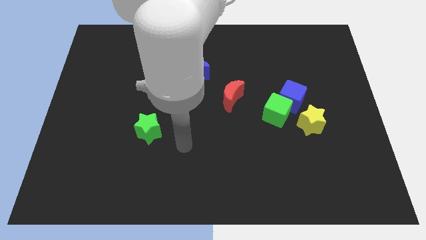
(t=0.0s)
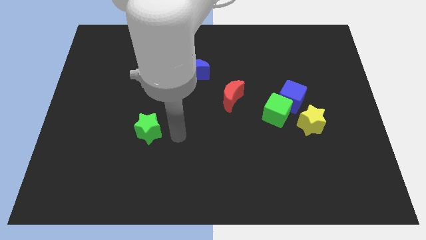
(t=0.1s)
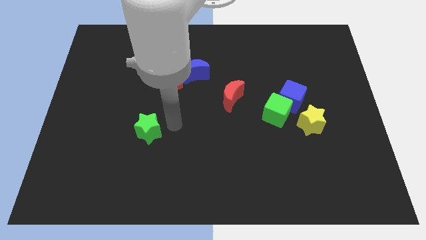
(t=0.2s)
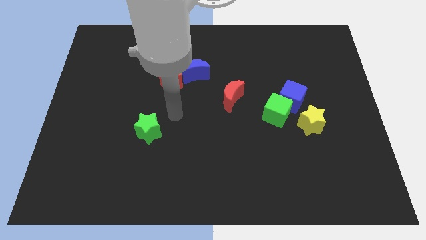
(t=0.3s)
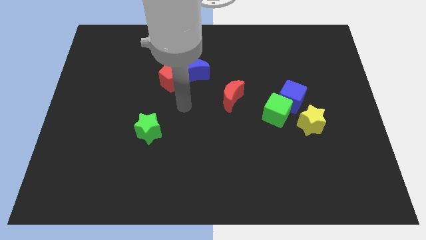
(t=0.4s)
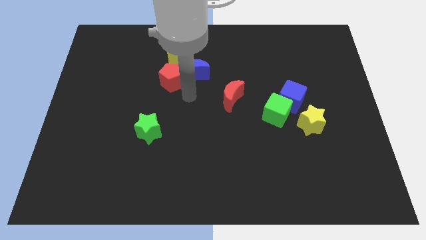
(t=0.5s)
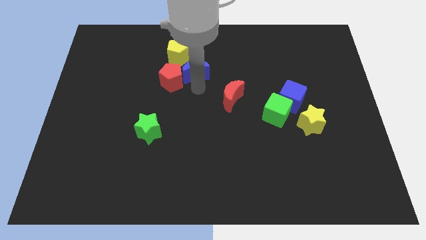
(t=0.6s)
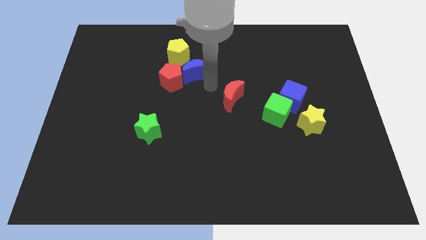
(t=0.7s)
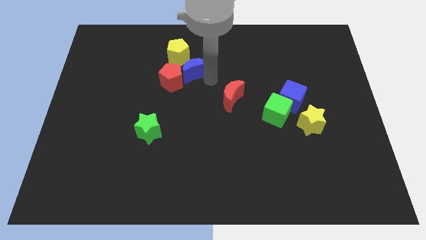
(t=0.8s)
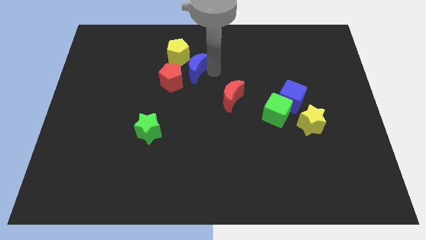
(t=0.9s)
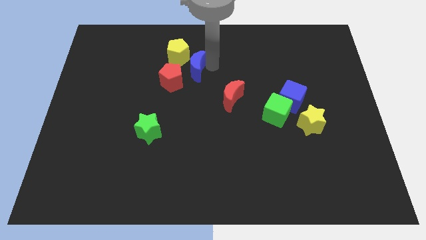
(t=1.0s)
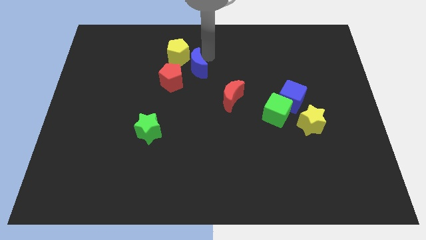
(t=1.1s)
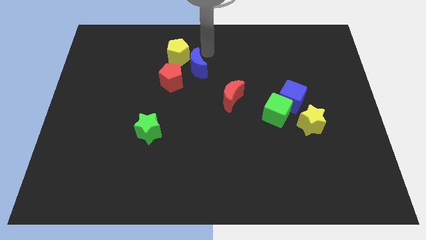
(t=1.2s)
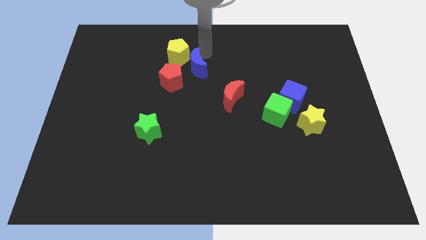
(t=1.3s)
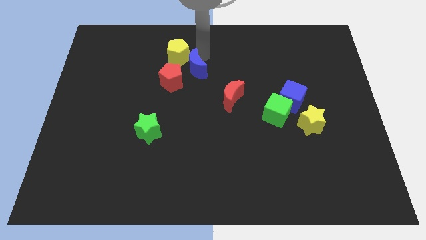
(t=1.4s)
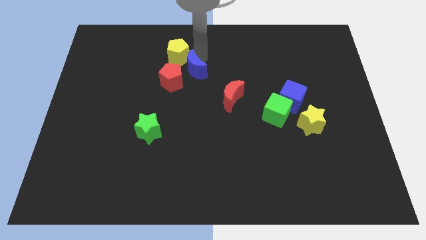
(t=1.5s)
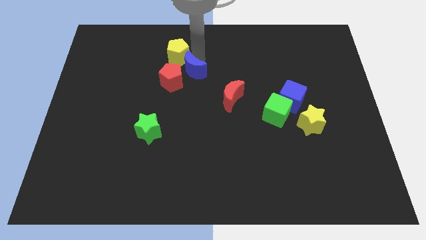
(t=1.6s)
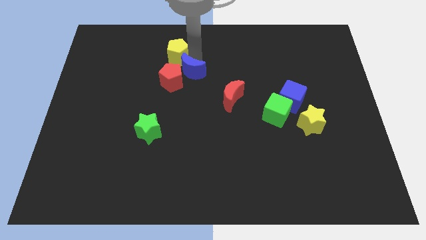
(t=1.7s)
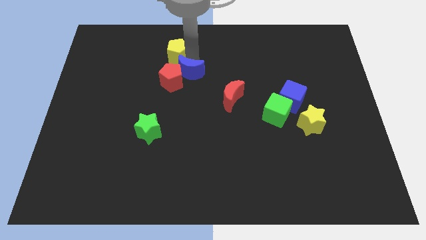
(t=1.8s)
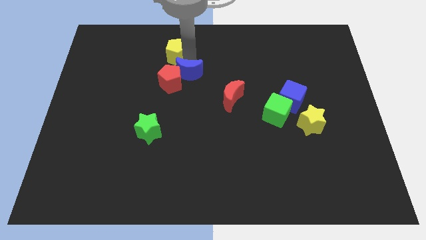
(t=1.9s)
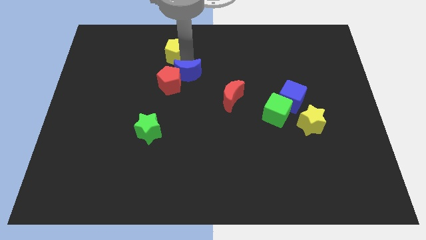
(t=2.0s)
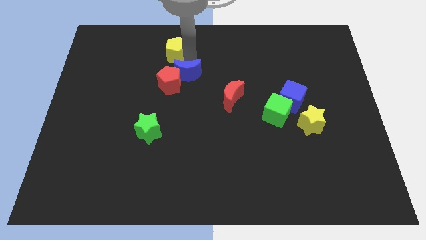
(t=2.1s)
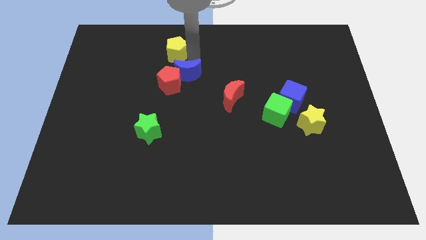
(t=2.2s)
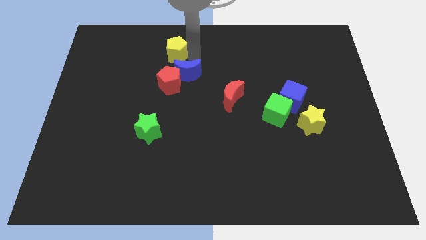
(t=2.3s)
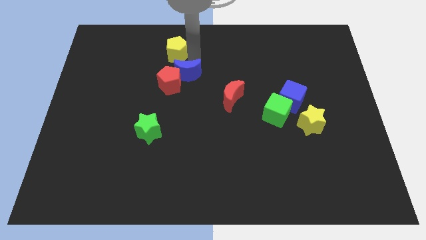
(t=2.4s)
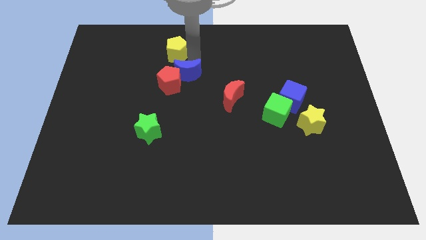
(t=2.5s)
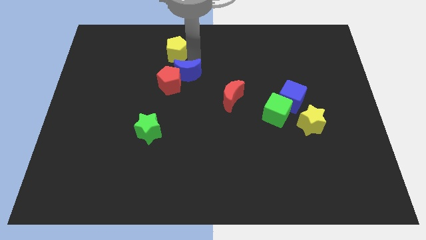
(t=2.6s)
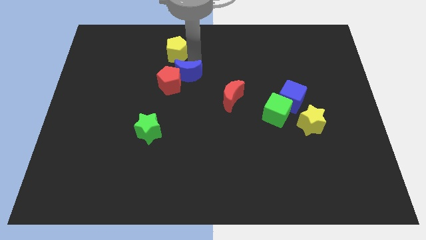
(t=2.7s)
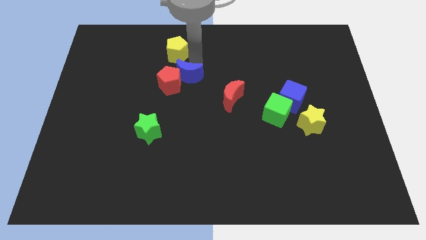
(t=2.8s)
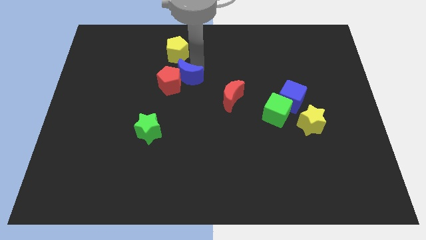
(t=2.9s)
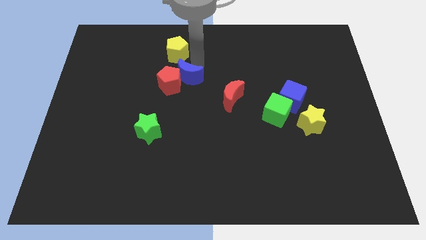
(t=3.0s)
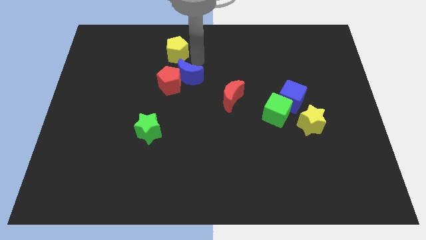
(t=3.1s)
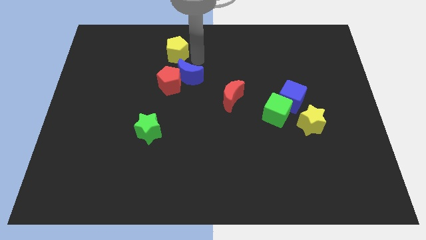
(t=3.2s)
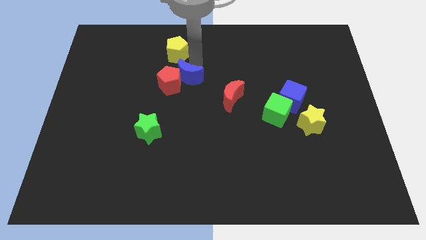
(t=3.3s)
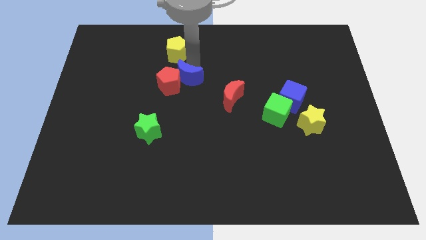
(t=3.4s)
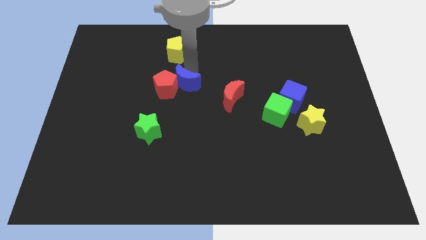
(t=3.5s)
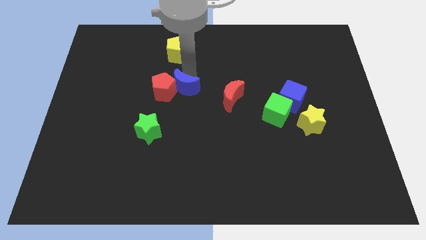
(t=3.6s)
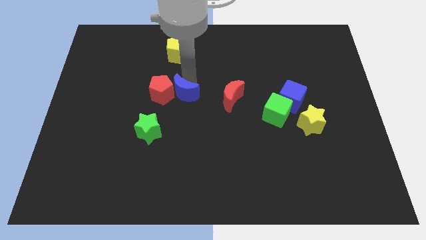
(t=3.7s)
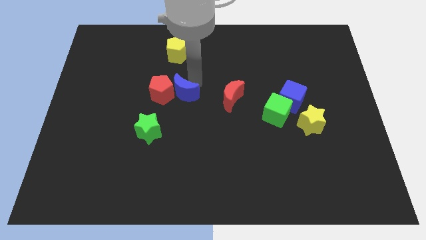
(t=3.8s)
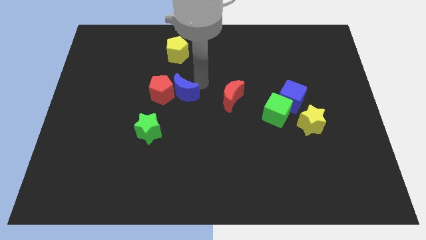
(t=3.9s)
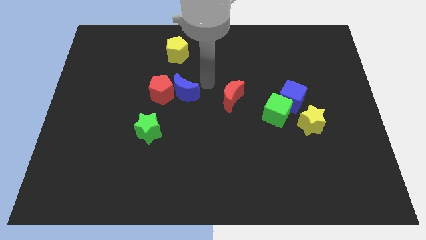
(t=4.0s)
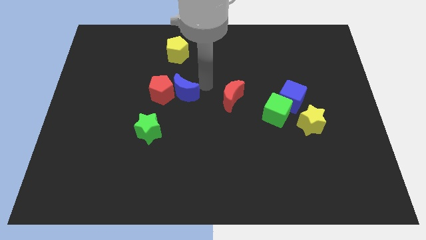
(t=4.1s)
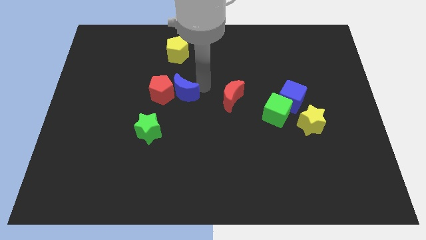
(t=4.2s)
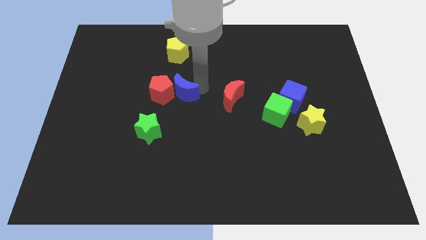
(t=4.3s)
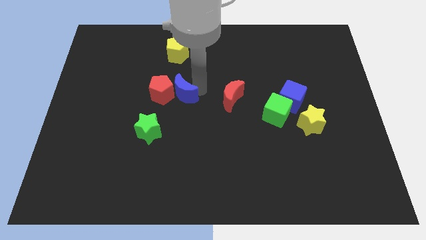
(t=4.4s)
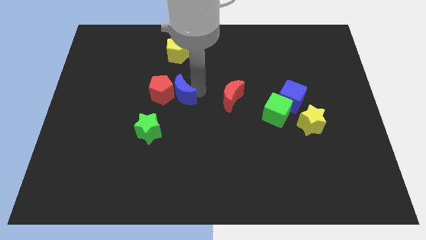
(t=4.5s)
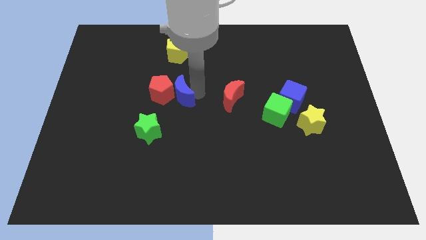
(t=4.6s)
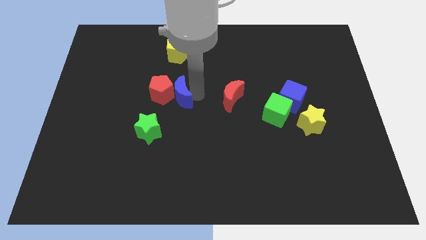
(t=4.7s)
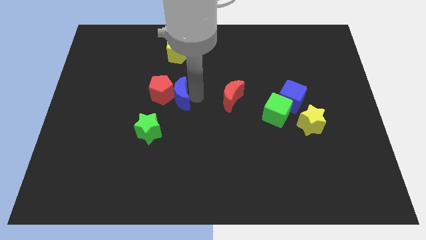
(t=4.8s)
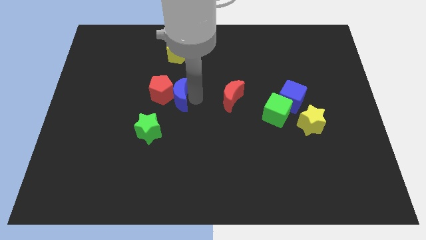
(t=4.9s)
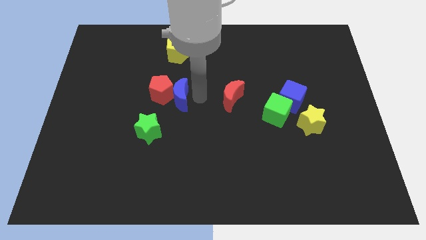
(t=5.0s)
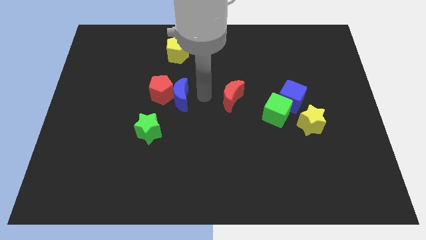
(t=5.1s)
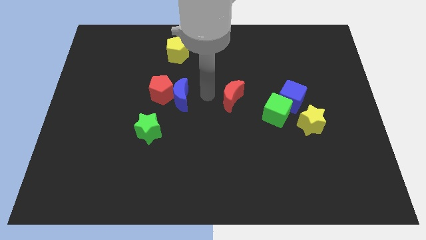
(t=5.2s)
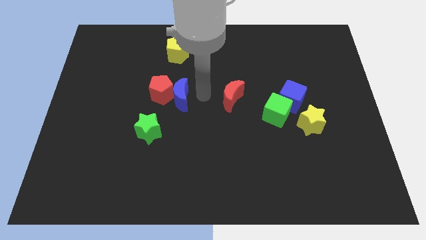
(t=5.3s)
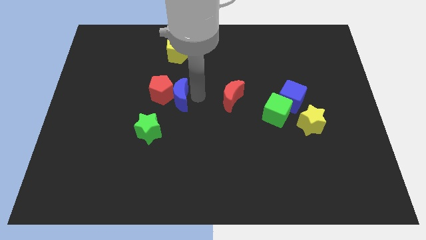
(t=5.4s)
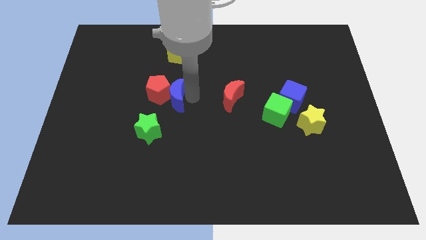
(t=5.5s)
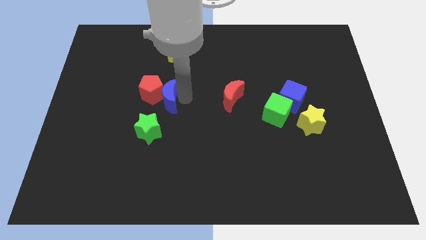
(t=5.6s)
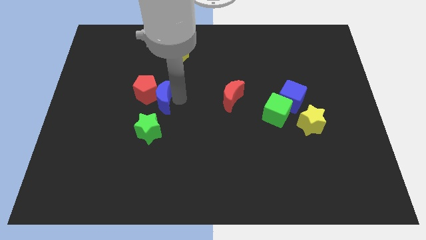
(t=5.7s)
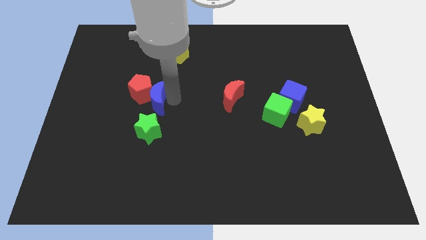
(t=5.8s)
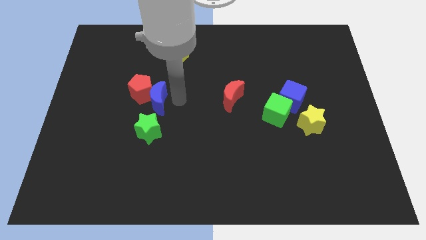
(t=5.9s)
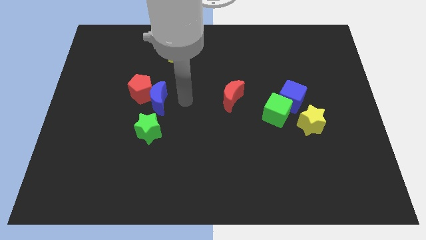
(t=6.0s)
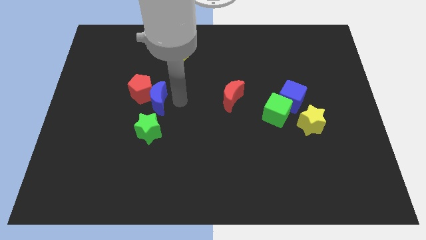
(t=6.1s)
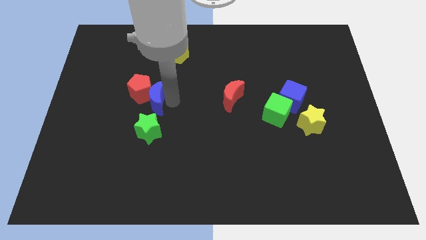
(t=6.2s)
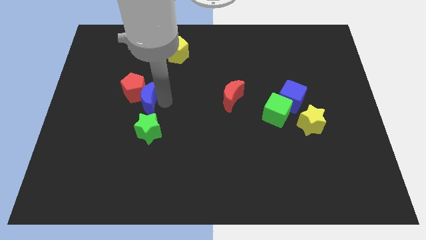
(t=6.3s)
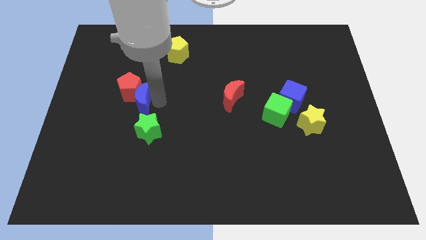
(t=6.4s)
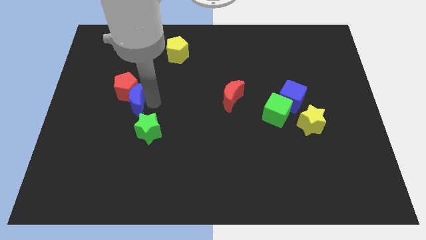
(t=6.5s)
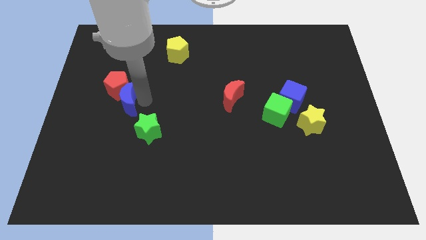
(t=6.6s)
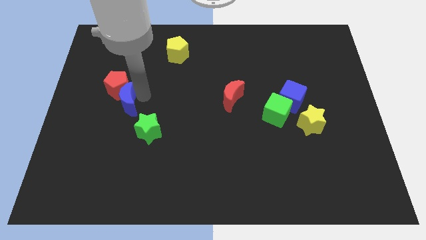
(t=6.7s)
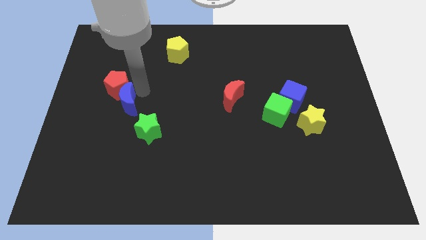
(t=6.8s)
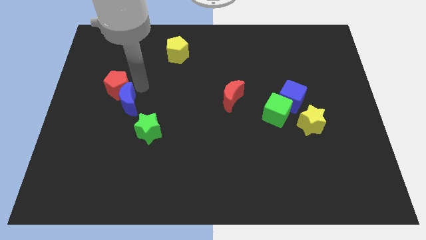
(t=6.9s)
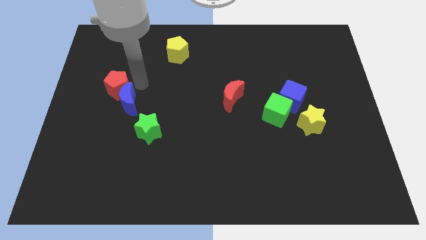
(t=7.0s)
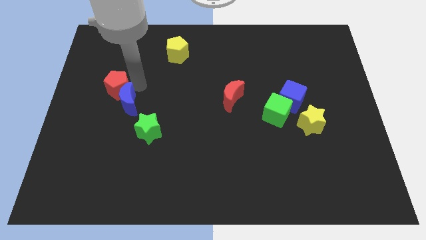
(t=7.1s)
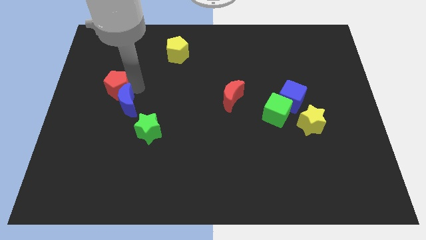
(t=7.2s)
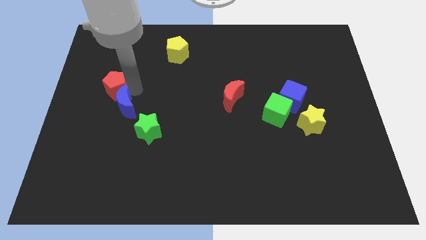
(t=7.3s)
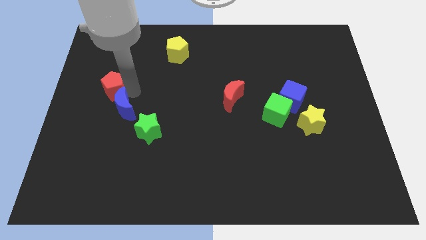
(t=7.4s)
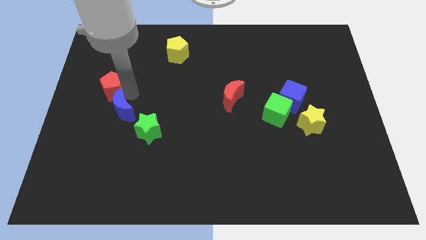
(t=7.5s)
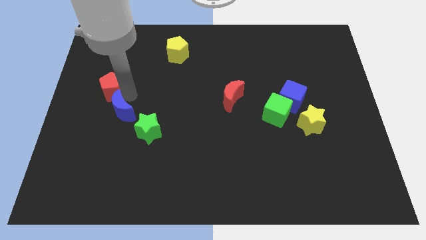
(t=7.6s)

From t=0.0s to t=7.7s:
slide the blue moon diagonally downwards and to the left

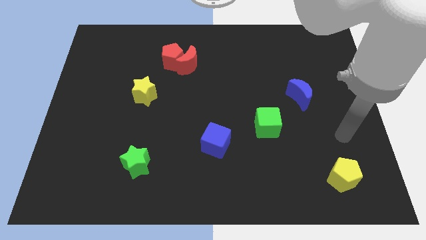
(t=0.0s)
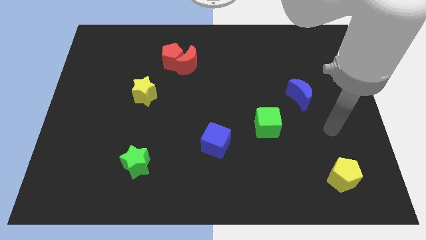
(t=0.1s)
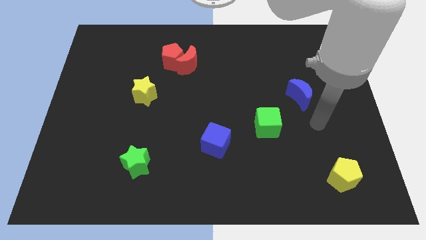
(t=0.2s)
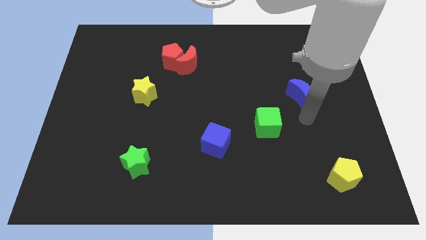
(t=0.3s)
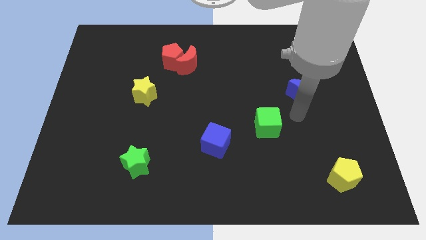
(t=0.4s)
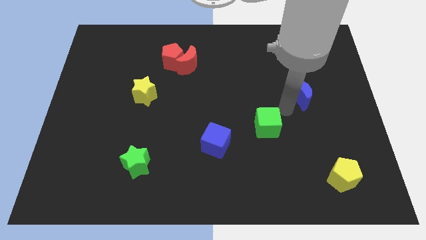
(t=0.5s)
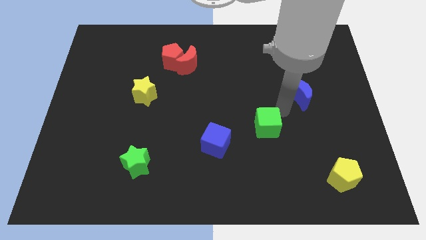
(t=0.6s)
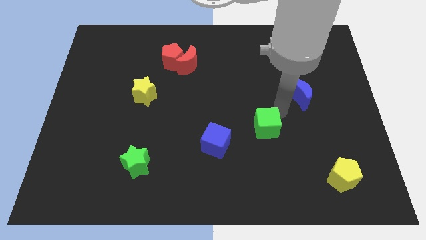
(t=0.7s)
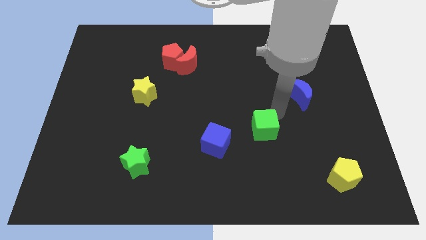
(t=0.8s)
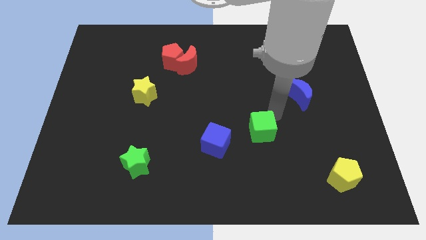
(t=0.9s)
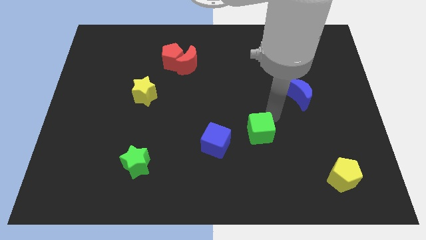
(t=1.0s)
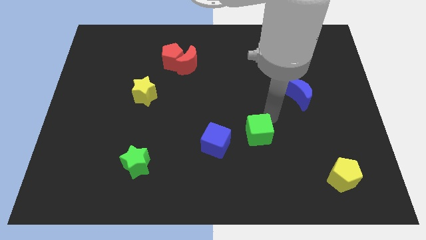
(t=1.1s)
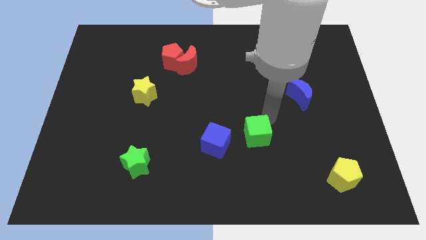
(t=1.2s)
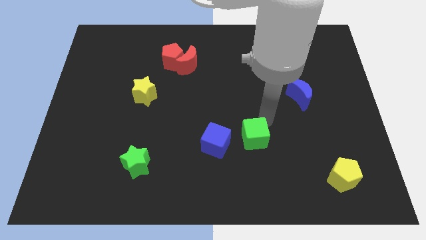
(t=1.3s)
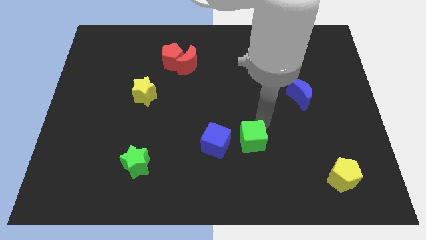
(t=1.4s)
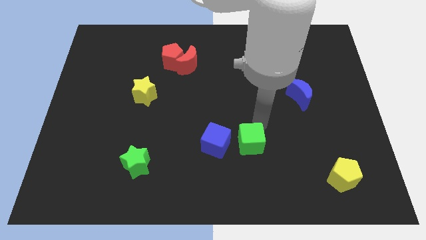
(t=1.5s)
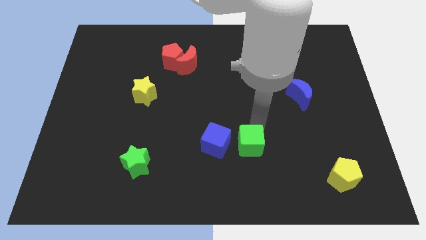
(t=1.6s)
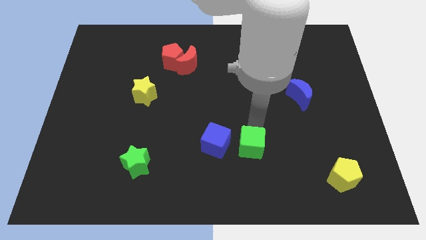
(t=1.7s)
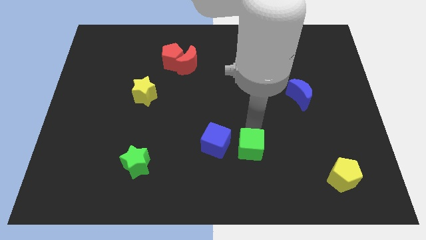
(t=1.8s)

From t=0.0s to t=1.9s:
slide the green cube a bit down and then left
